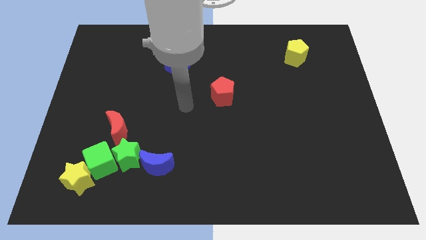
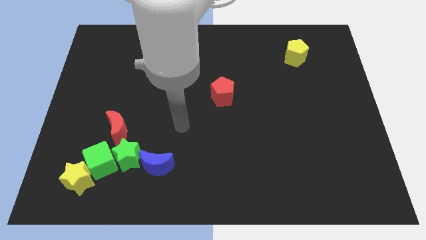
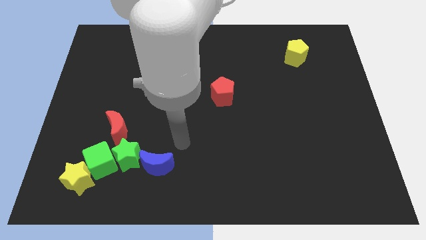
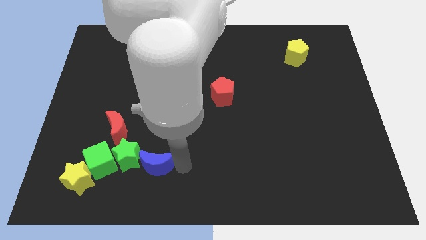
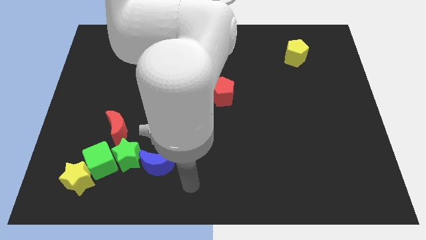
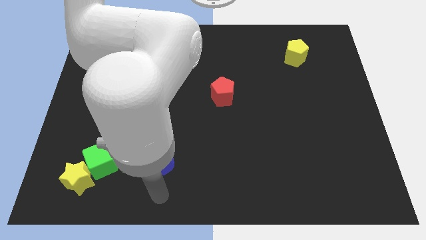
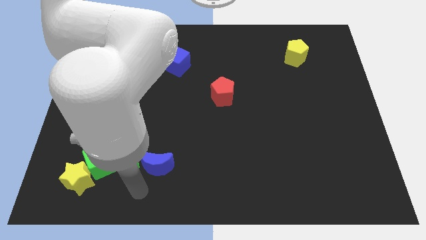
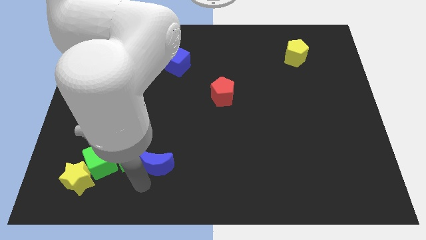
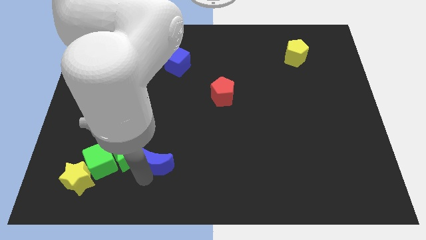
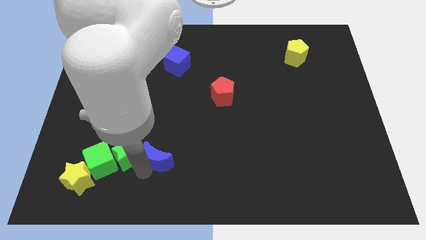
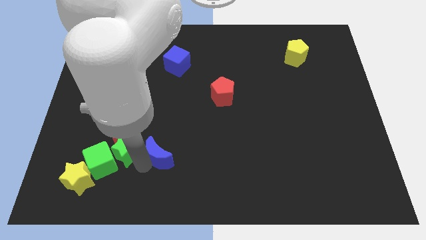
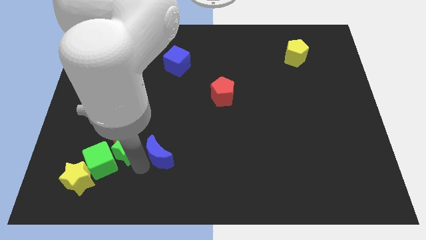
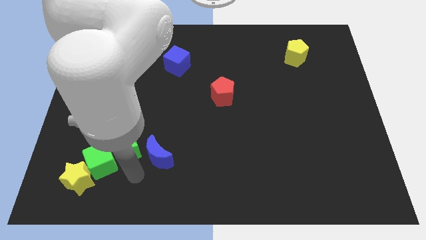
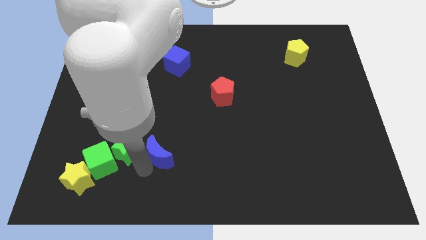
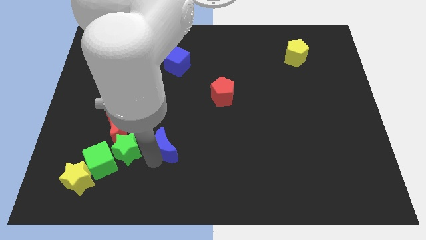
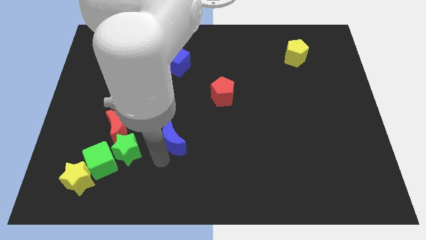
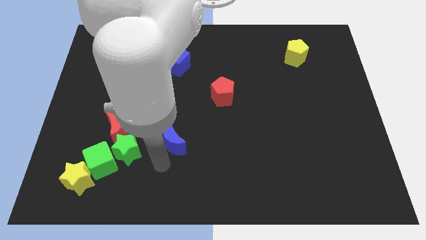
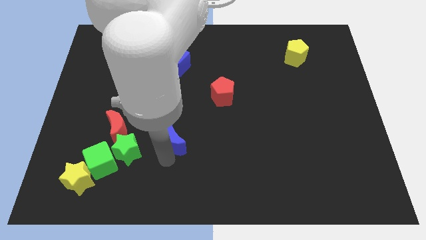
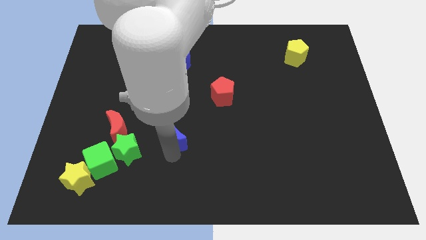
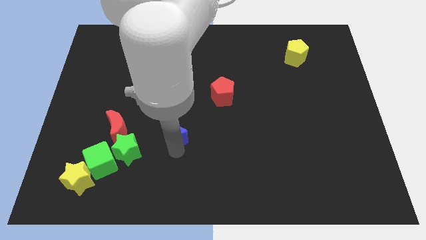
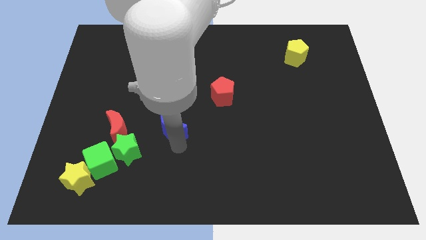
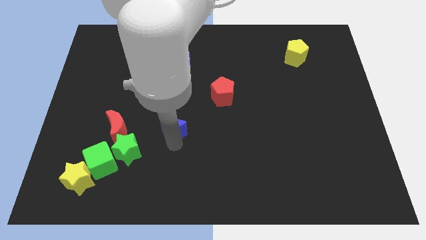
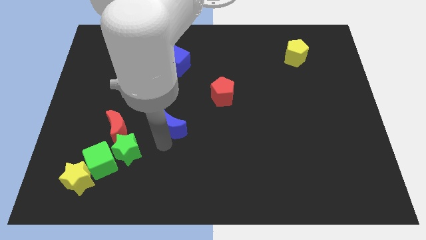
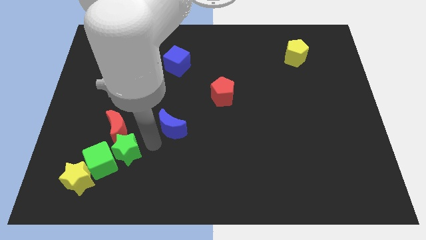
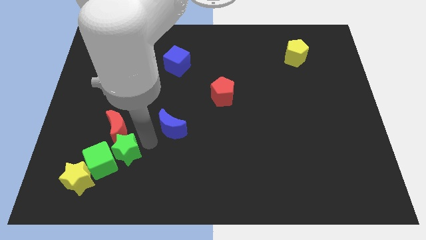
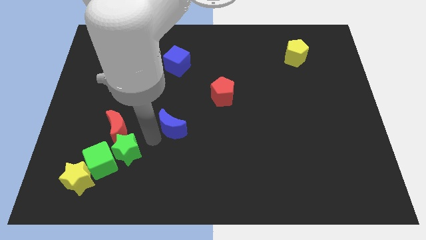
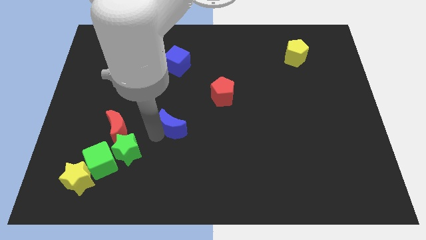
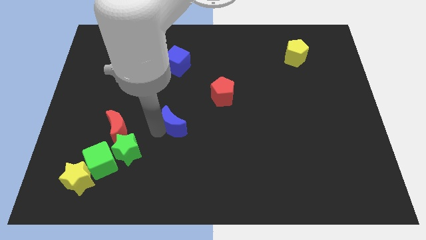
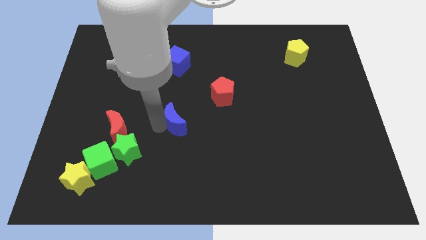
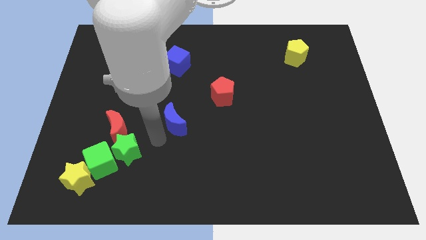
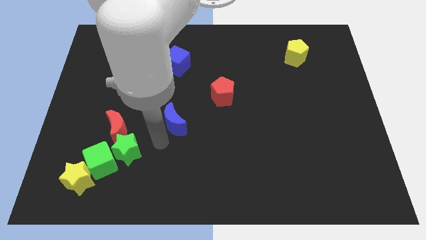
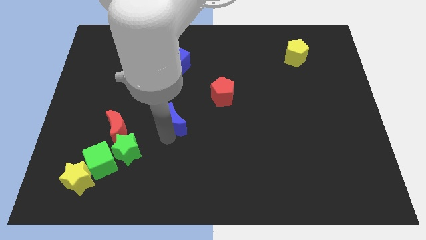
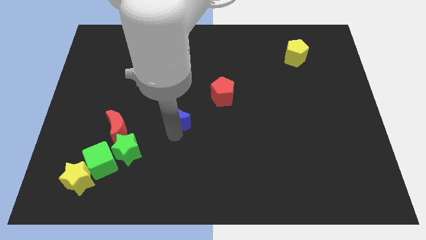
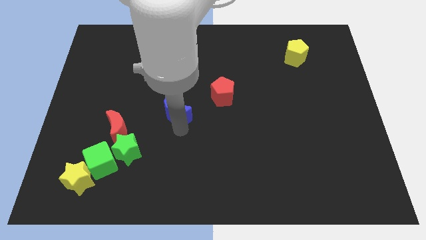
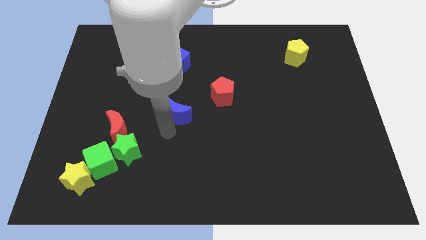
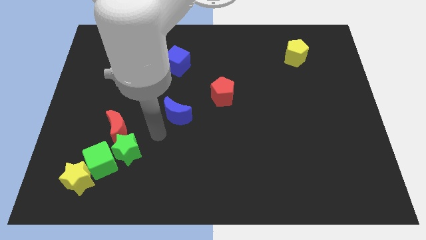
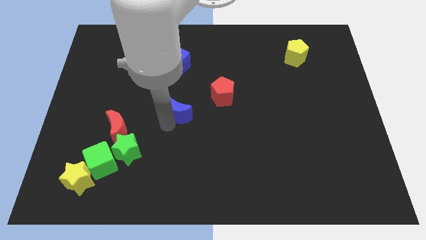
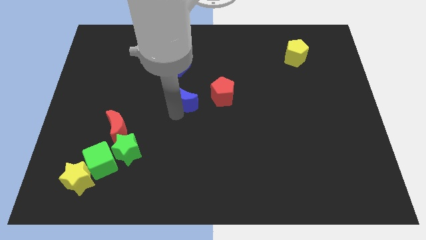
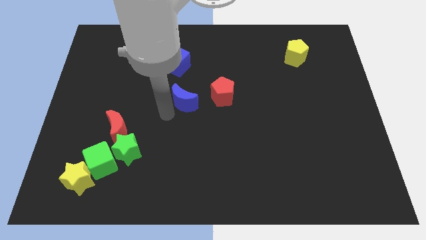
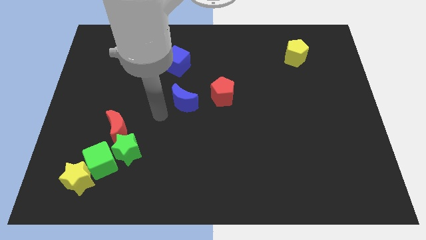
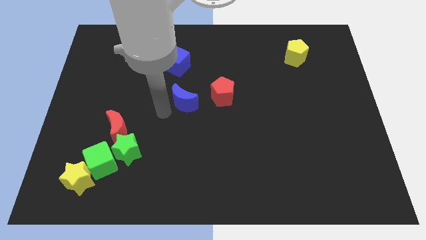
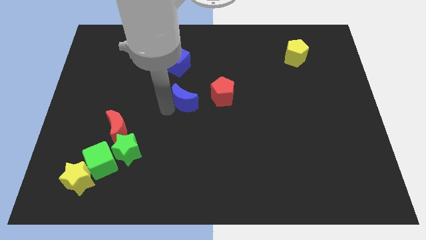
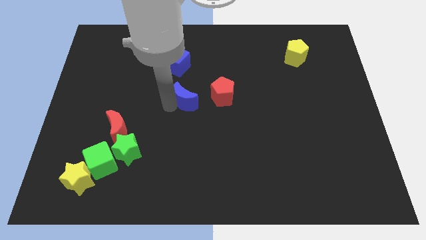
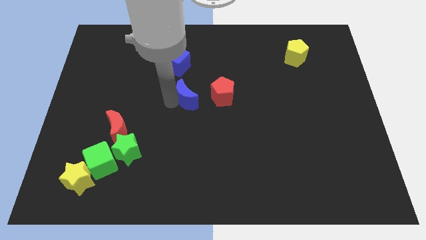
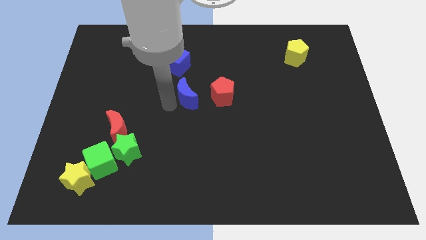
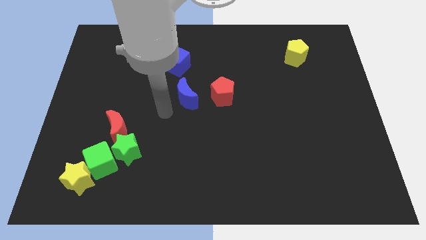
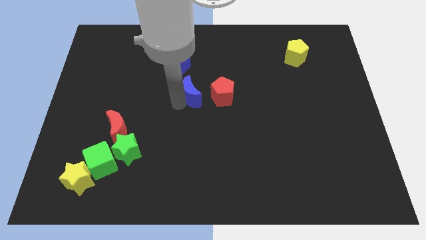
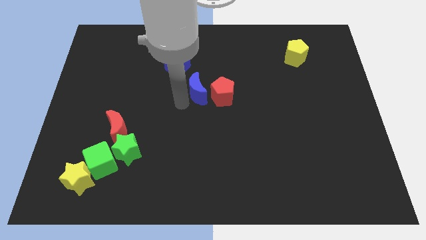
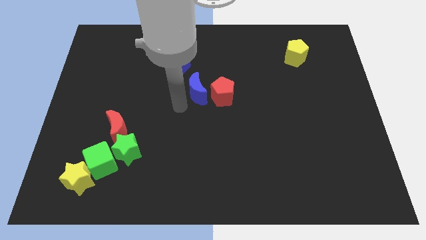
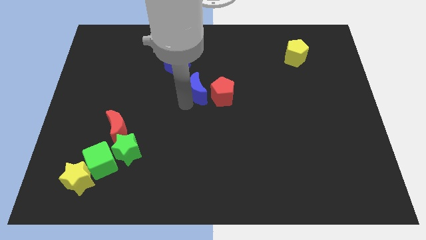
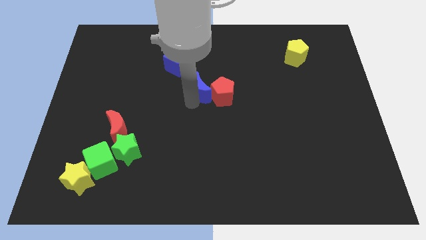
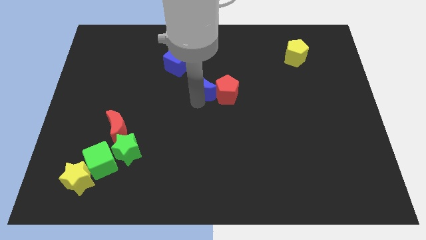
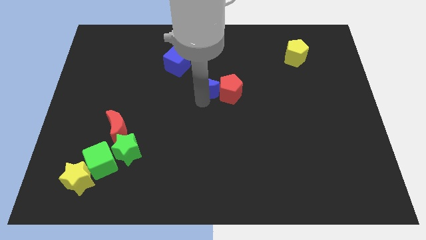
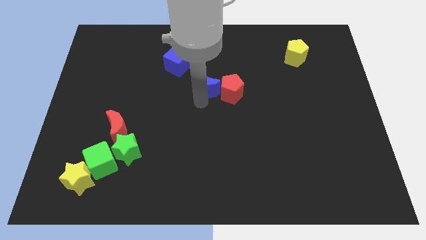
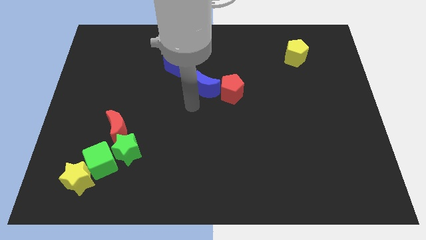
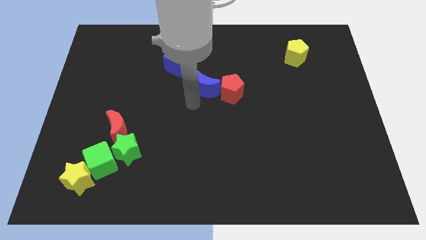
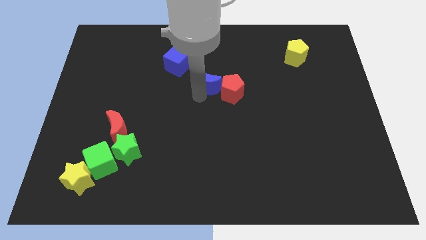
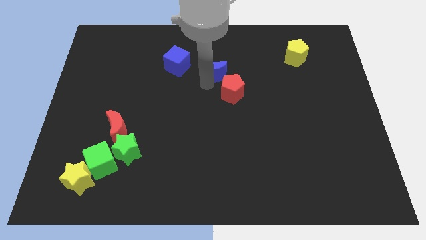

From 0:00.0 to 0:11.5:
push the blue moon above the red pentagon

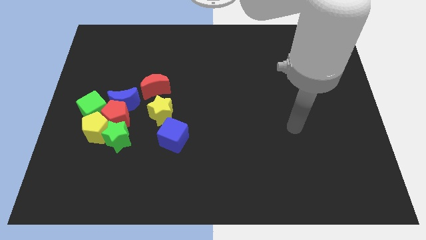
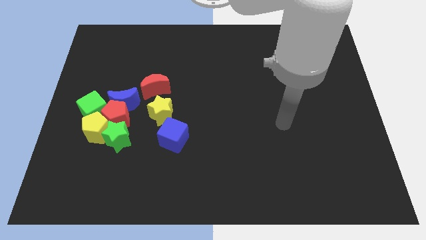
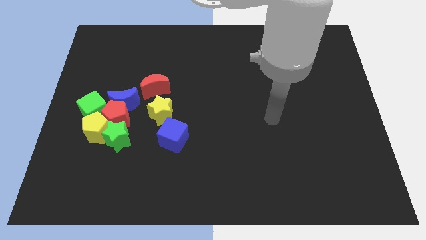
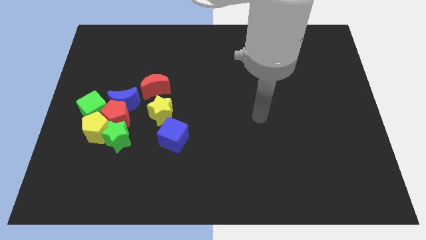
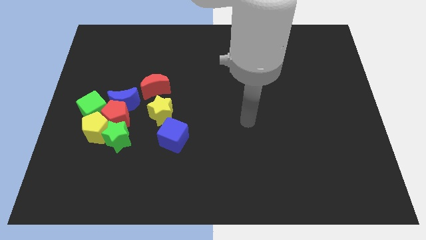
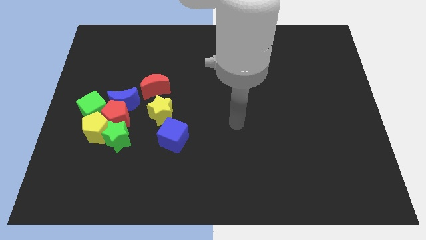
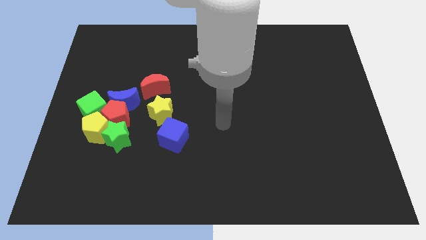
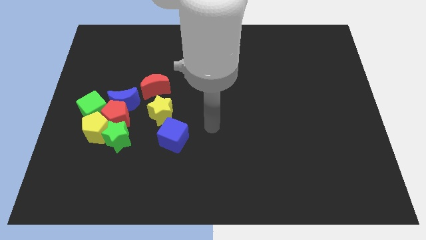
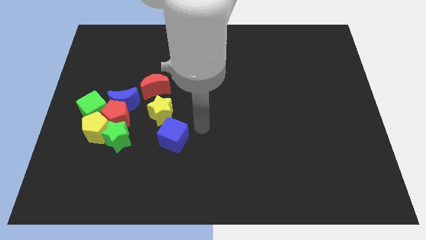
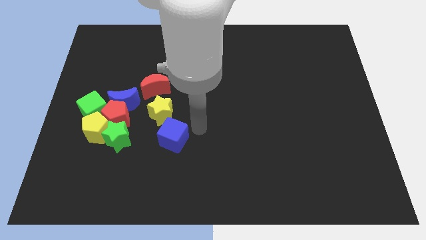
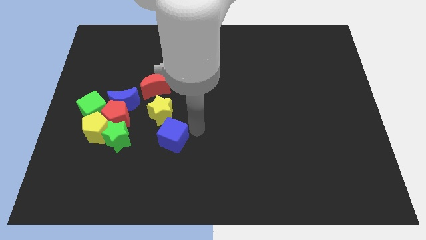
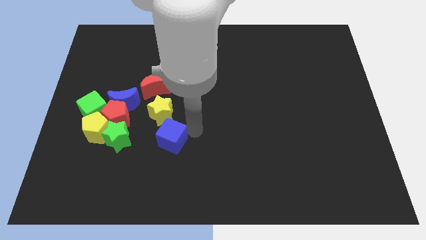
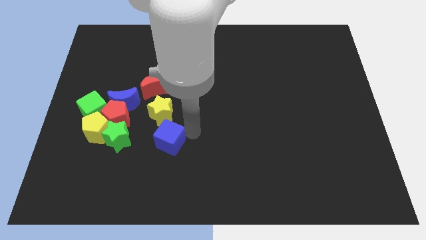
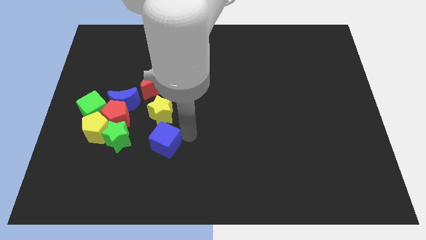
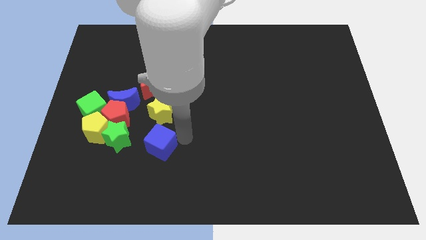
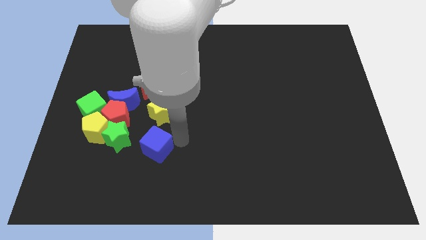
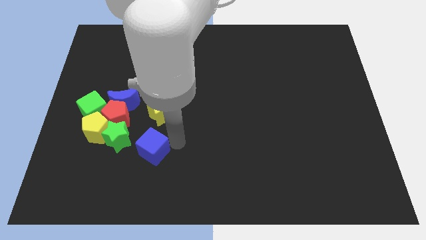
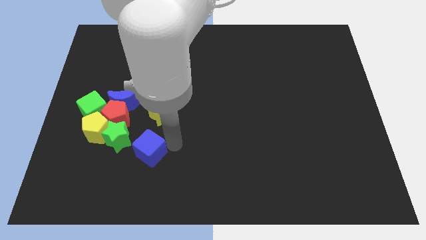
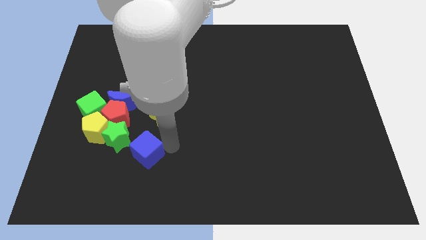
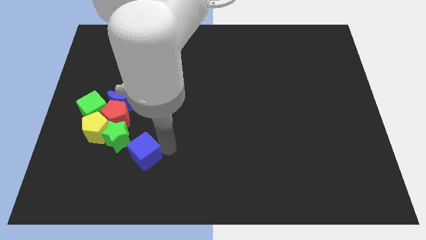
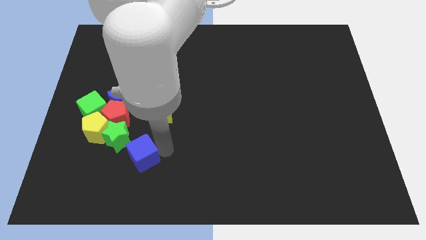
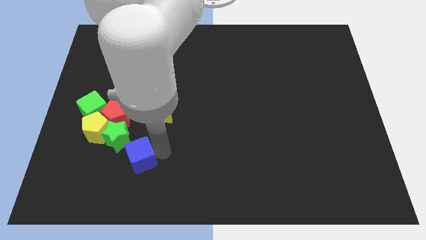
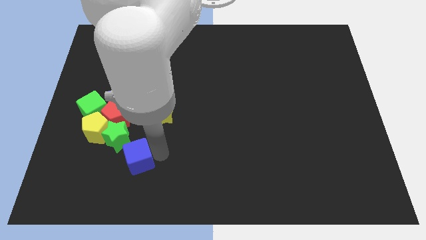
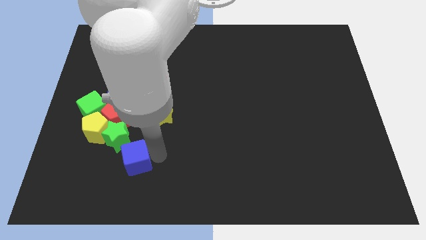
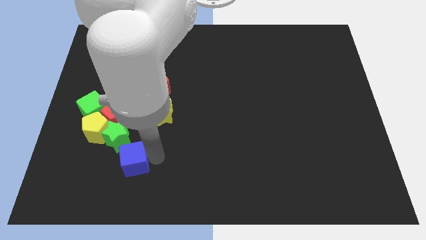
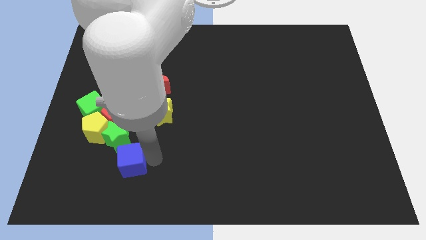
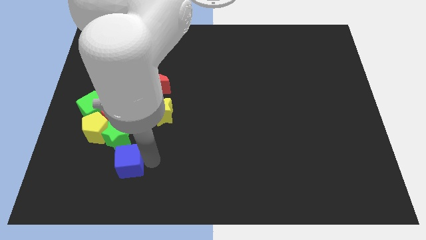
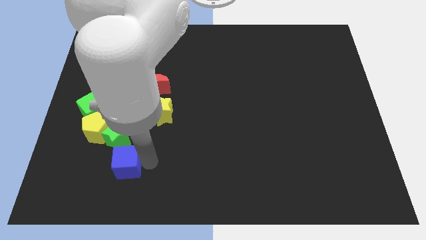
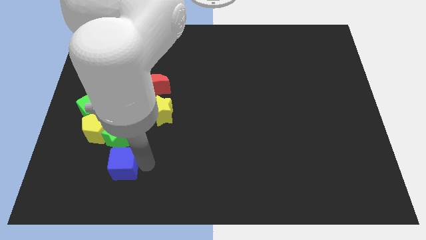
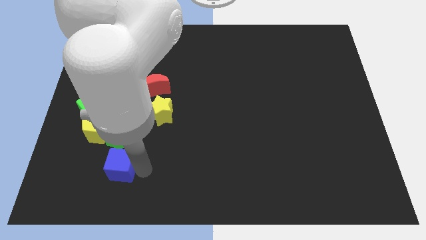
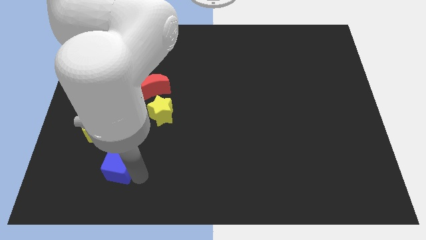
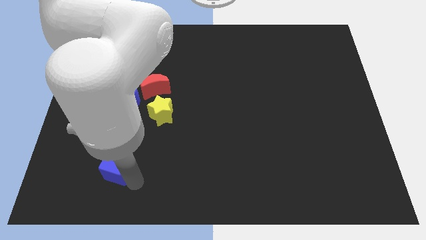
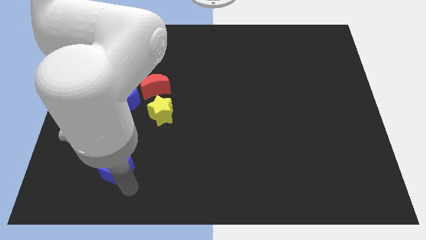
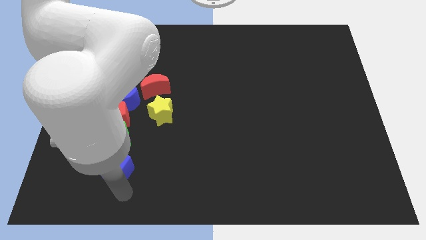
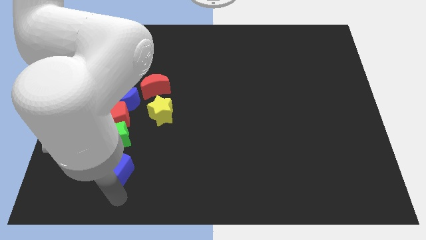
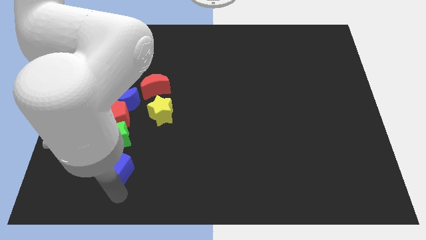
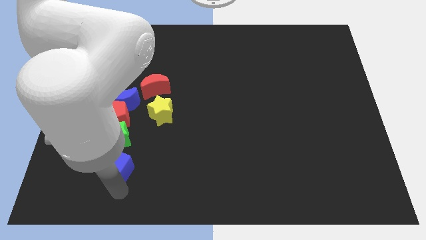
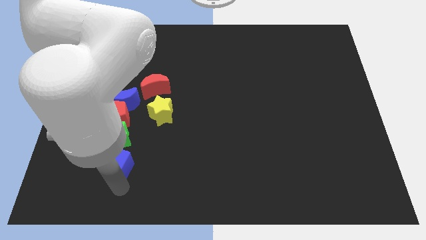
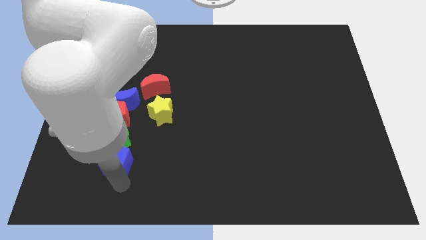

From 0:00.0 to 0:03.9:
push the blue cube to the bottom side of the blue moon
